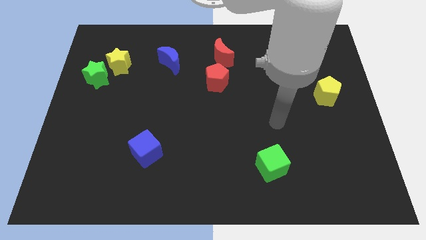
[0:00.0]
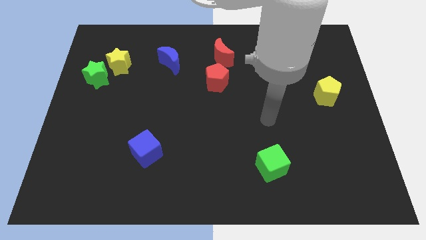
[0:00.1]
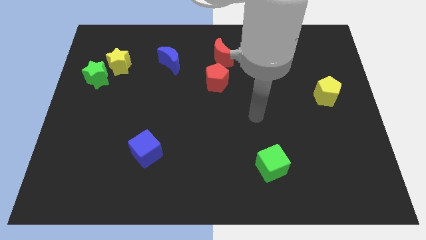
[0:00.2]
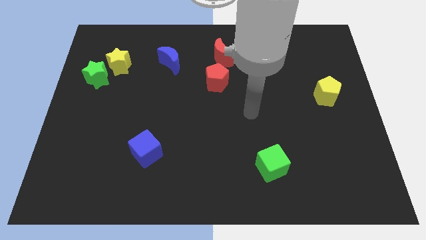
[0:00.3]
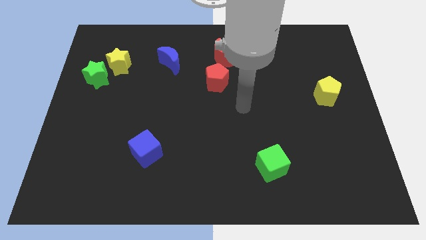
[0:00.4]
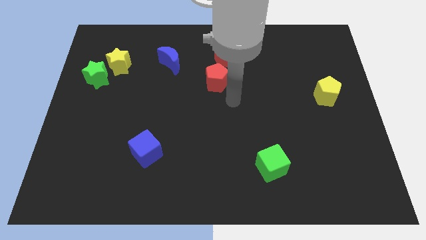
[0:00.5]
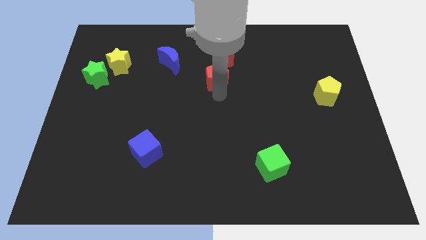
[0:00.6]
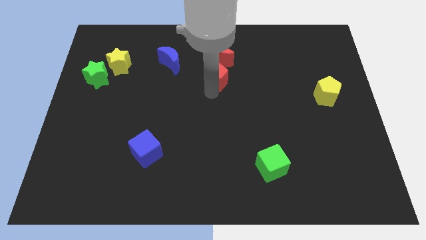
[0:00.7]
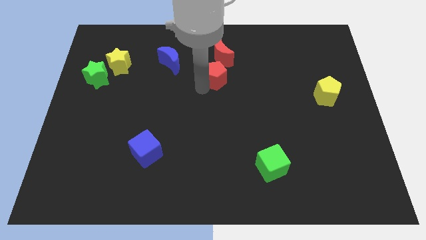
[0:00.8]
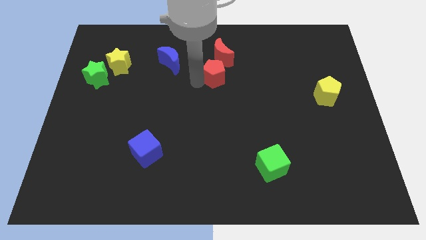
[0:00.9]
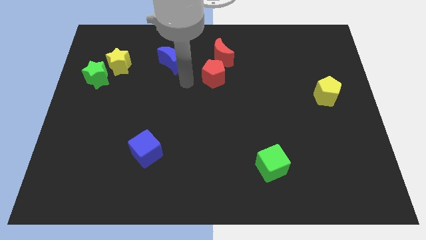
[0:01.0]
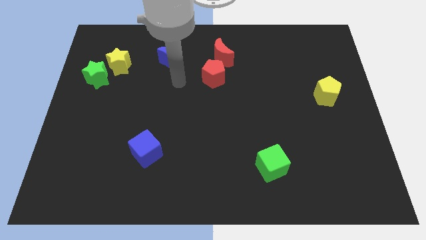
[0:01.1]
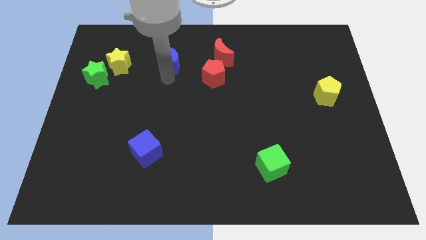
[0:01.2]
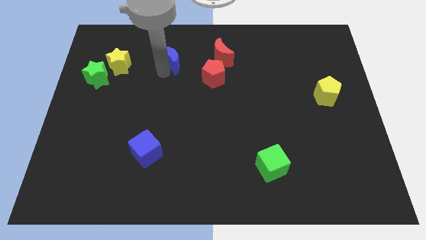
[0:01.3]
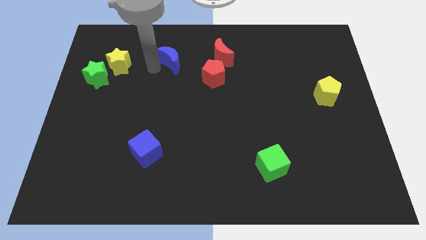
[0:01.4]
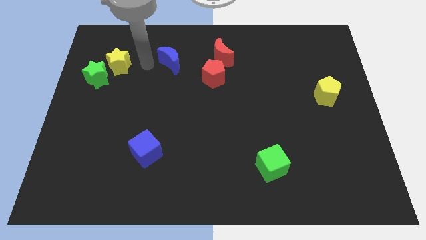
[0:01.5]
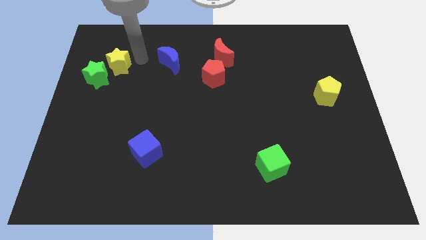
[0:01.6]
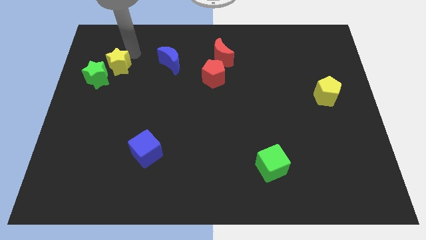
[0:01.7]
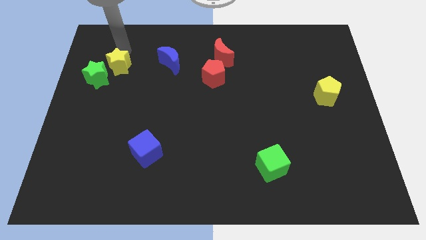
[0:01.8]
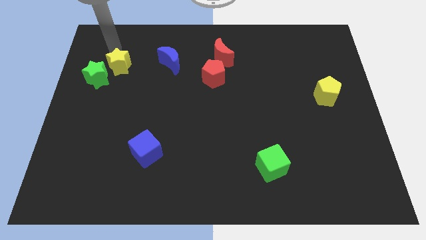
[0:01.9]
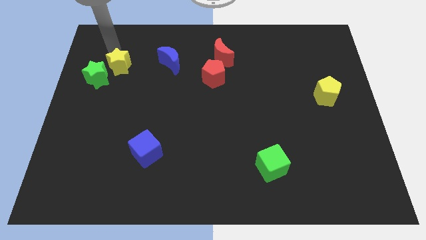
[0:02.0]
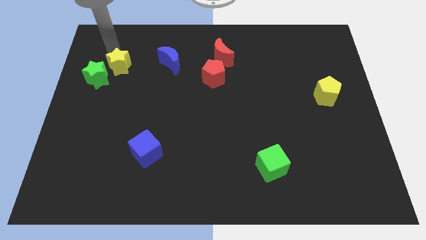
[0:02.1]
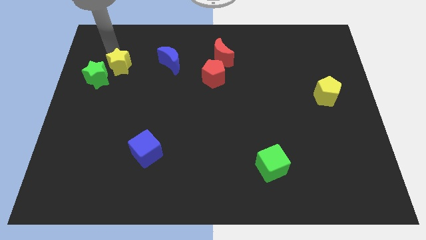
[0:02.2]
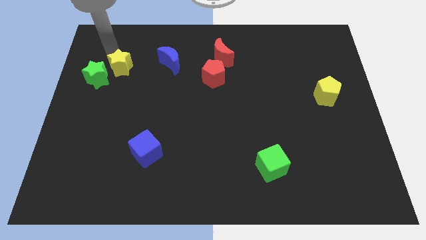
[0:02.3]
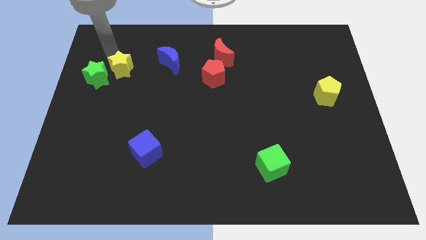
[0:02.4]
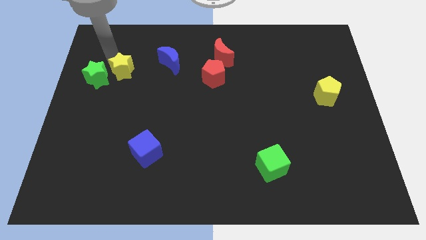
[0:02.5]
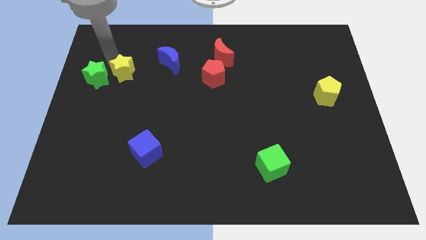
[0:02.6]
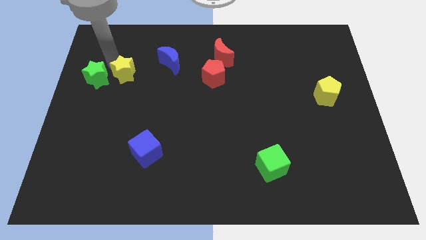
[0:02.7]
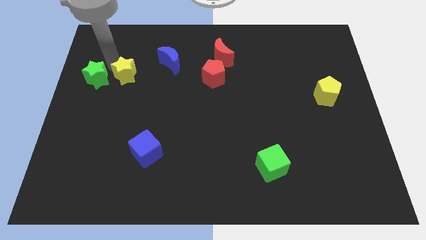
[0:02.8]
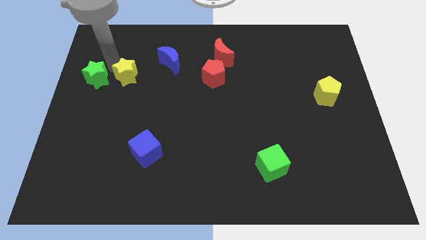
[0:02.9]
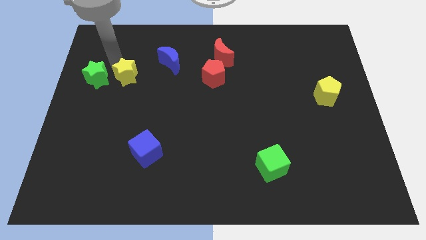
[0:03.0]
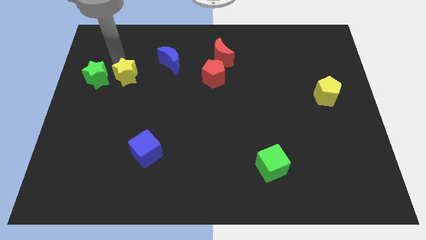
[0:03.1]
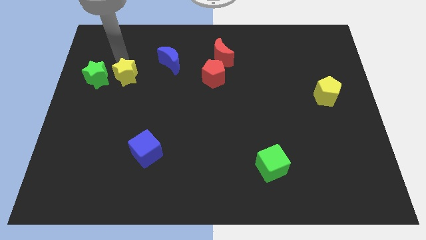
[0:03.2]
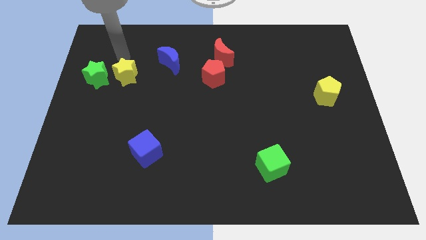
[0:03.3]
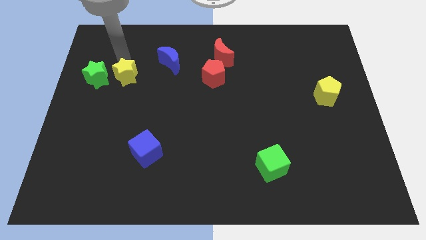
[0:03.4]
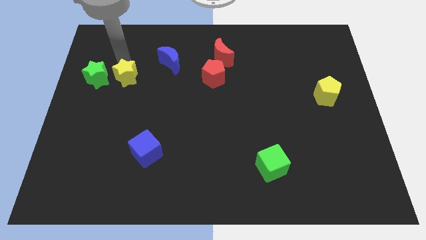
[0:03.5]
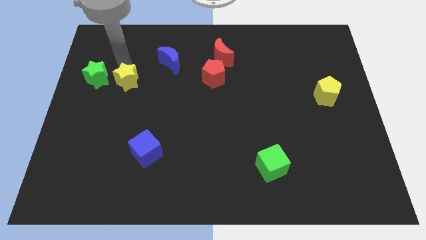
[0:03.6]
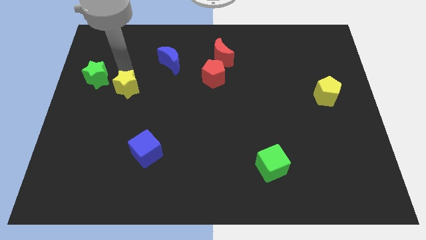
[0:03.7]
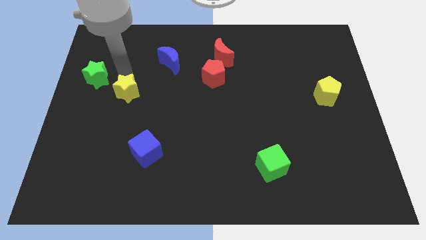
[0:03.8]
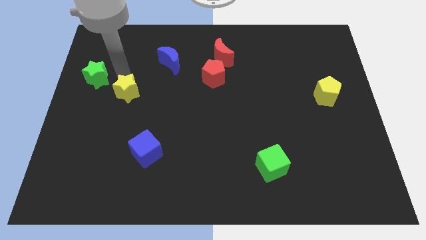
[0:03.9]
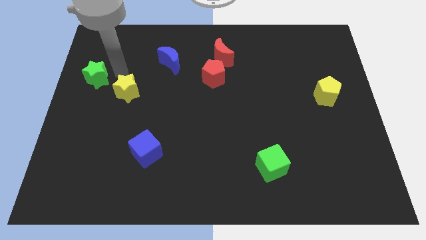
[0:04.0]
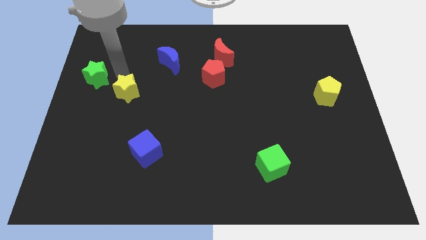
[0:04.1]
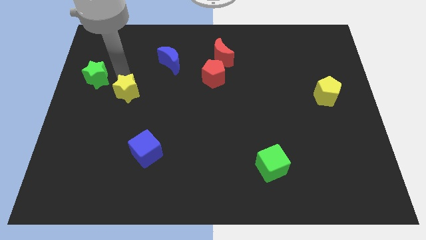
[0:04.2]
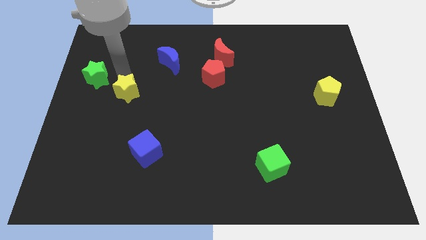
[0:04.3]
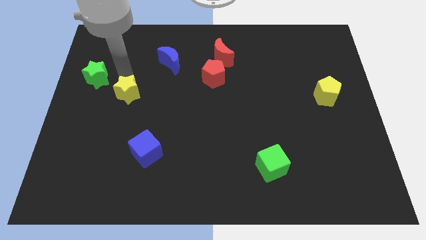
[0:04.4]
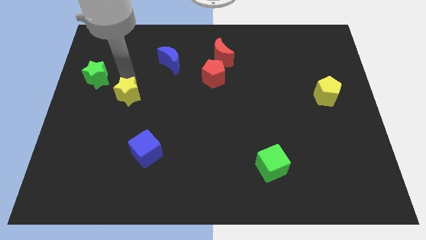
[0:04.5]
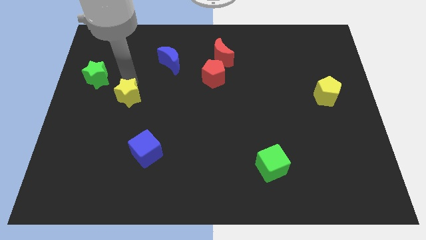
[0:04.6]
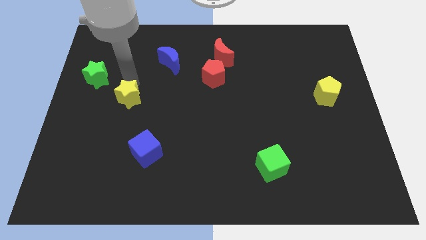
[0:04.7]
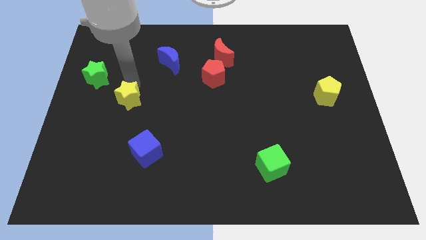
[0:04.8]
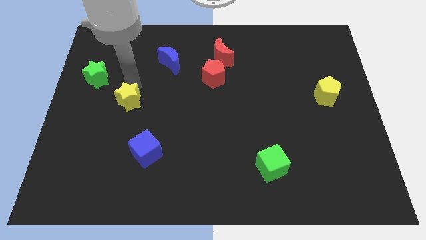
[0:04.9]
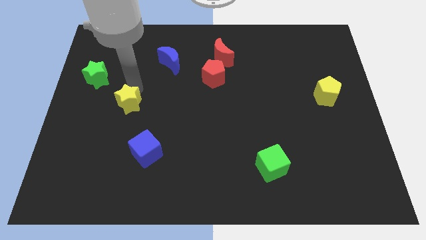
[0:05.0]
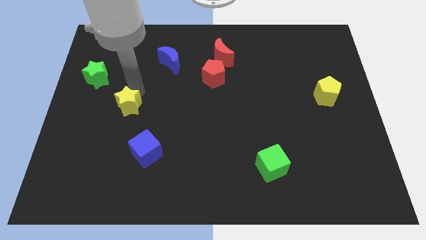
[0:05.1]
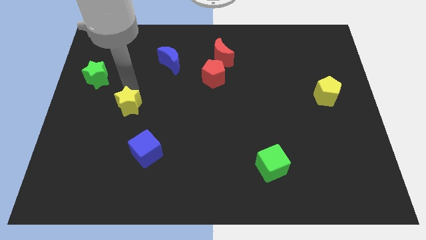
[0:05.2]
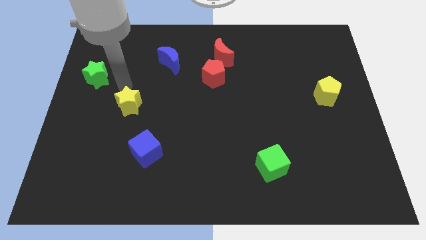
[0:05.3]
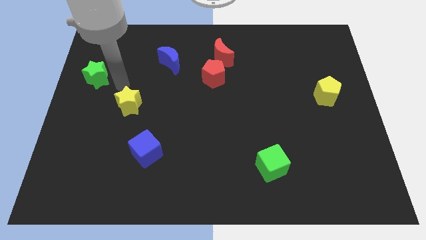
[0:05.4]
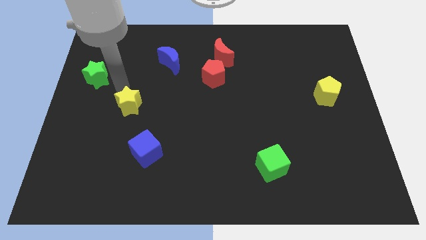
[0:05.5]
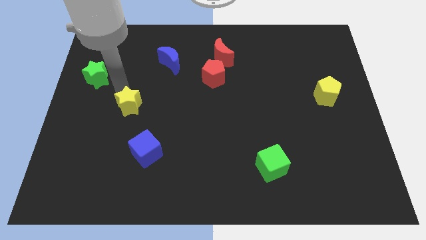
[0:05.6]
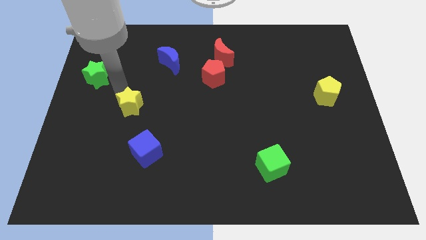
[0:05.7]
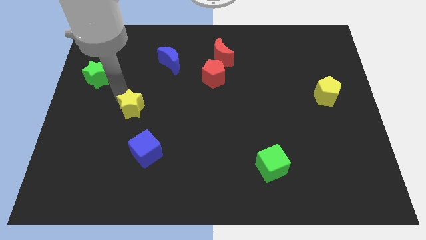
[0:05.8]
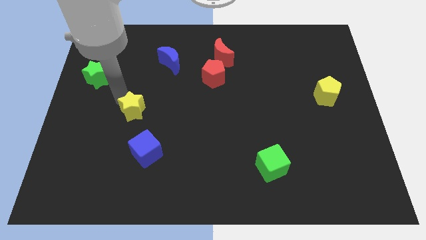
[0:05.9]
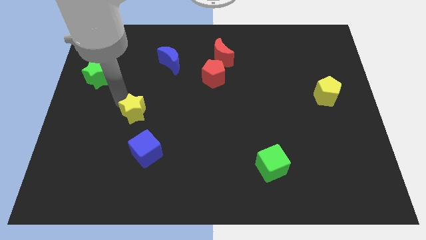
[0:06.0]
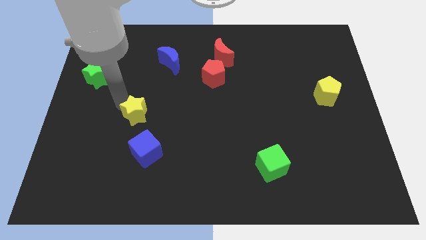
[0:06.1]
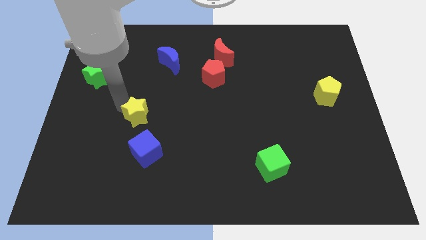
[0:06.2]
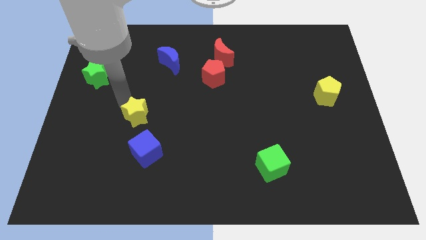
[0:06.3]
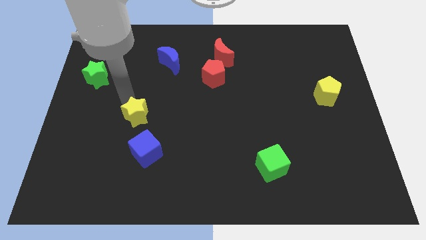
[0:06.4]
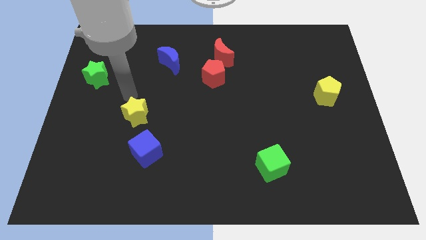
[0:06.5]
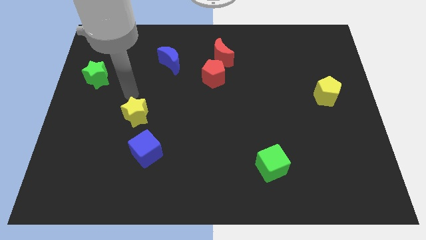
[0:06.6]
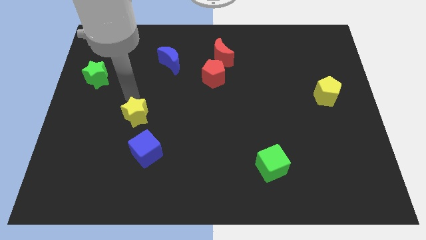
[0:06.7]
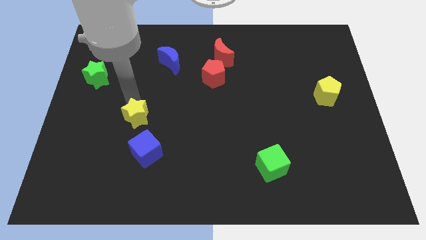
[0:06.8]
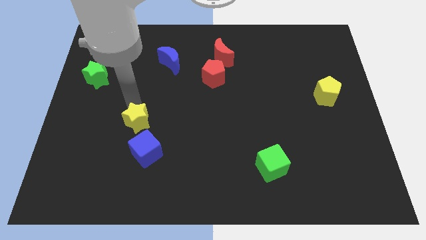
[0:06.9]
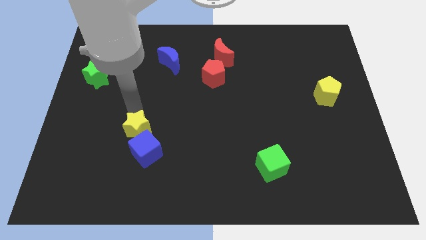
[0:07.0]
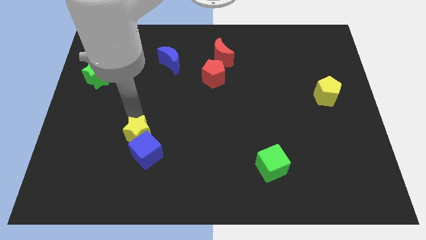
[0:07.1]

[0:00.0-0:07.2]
put the yellow star to the blue cube
